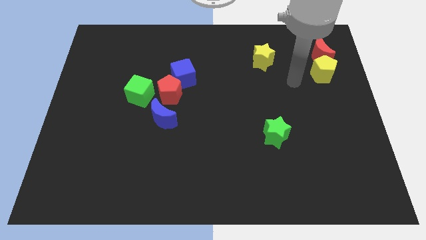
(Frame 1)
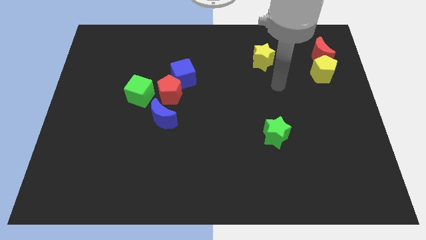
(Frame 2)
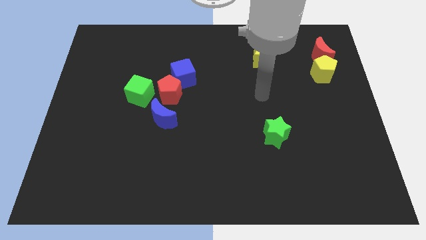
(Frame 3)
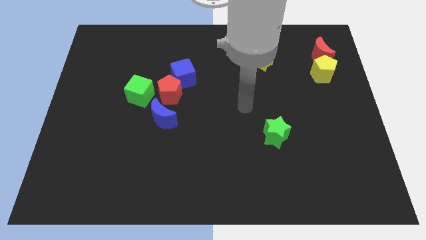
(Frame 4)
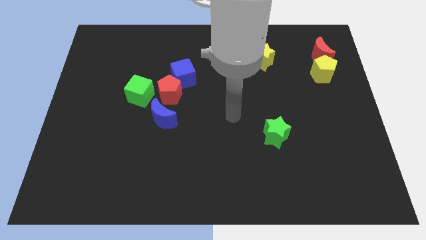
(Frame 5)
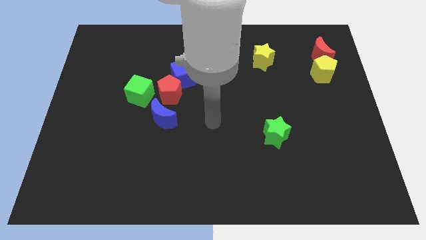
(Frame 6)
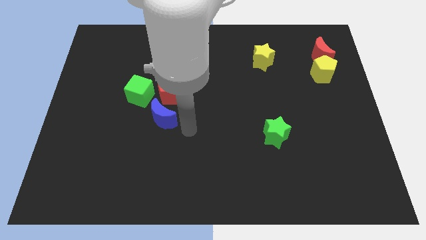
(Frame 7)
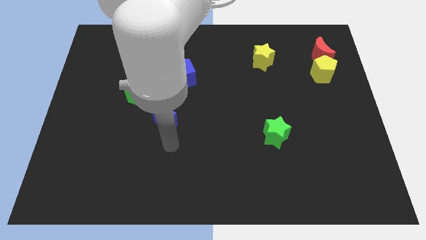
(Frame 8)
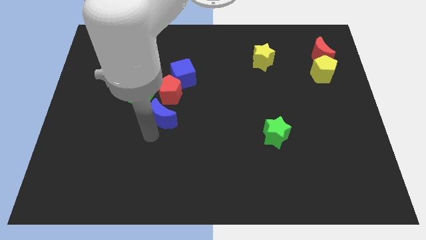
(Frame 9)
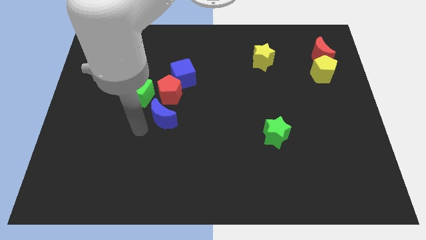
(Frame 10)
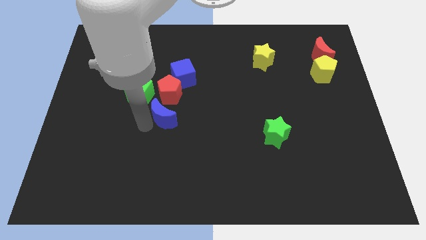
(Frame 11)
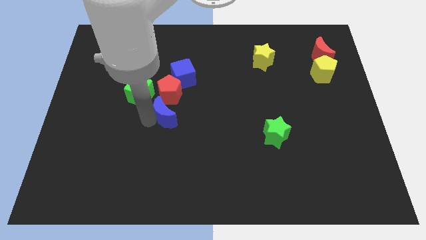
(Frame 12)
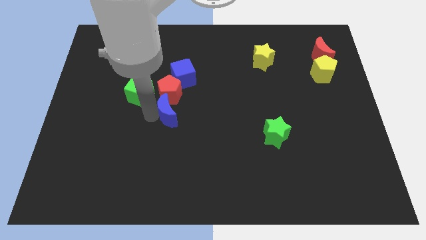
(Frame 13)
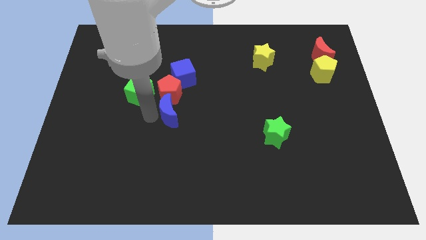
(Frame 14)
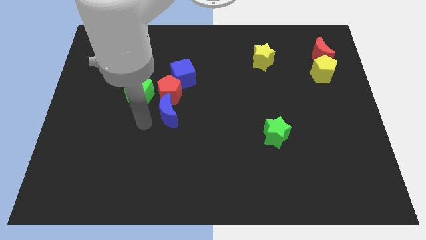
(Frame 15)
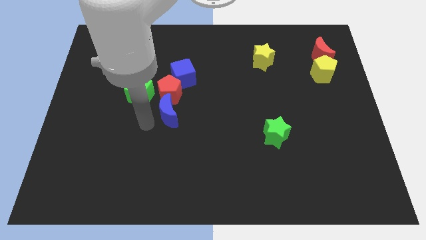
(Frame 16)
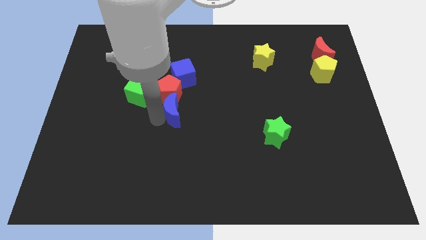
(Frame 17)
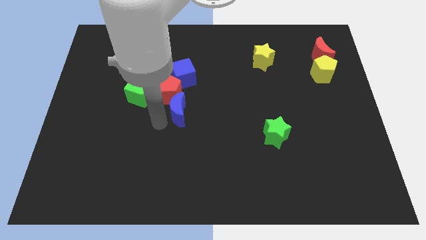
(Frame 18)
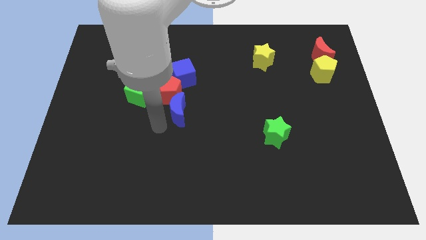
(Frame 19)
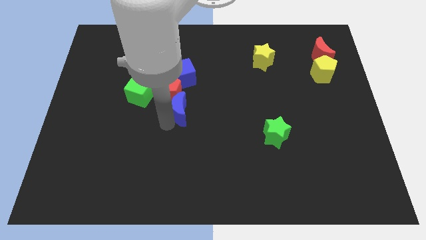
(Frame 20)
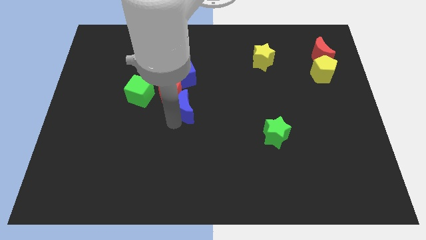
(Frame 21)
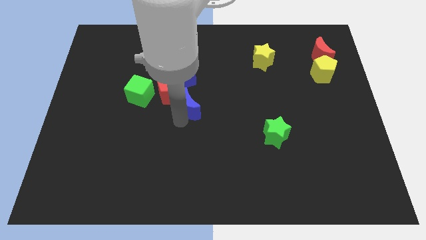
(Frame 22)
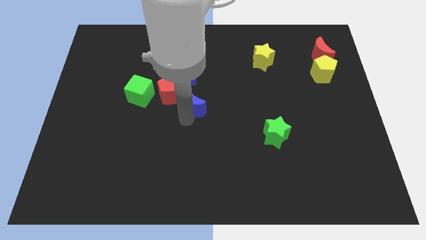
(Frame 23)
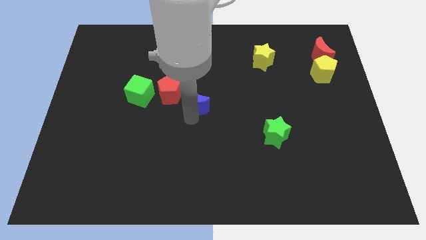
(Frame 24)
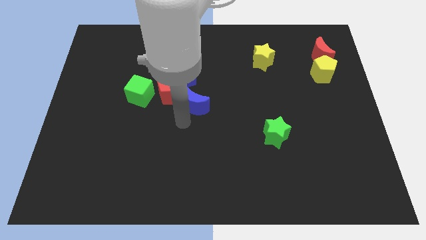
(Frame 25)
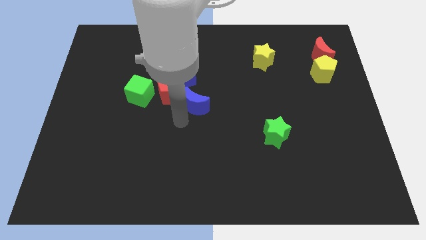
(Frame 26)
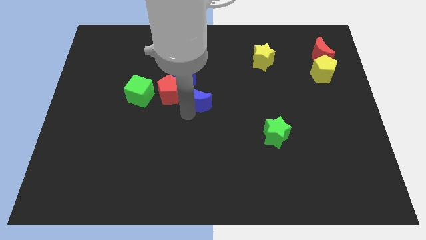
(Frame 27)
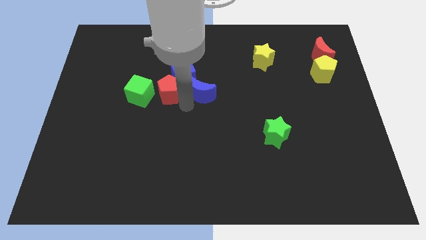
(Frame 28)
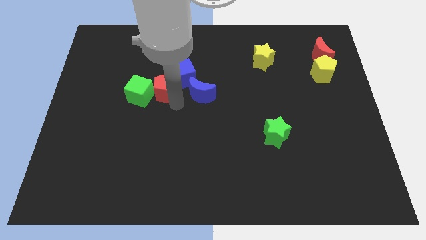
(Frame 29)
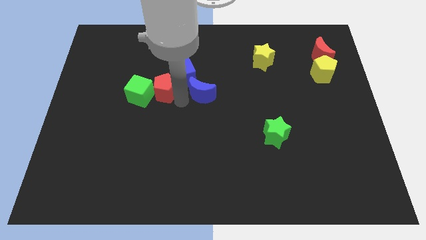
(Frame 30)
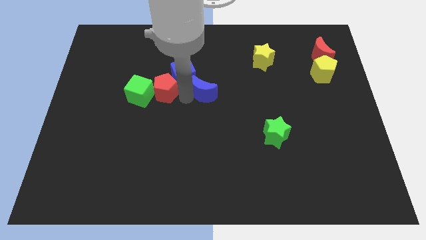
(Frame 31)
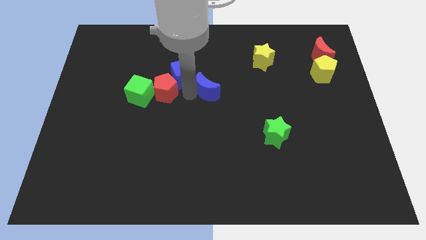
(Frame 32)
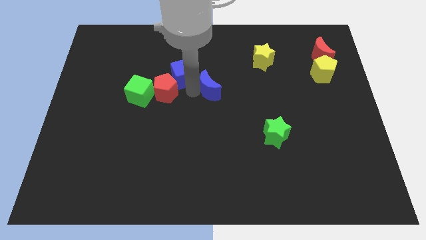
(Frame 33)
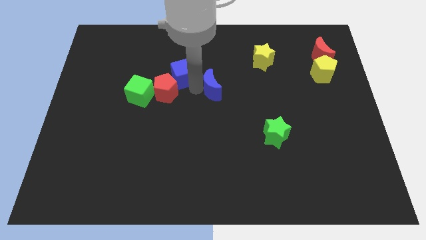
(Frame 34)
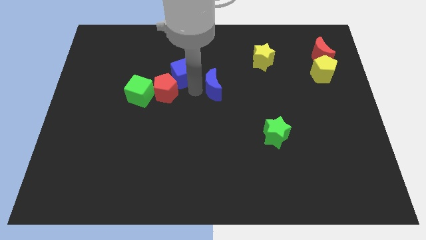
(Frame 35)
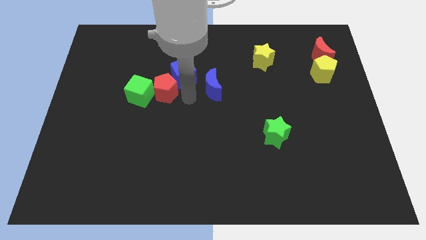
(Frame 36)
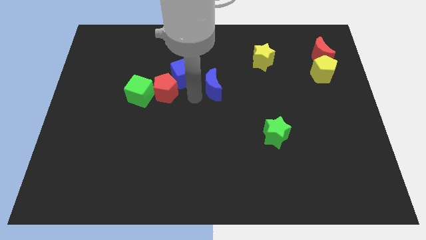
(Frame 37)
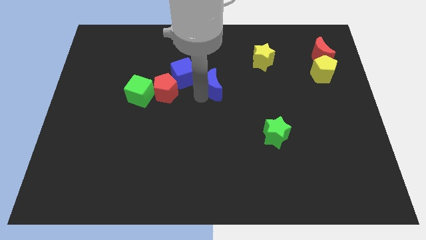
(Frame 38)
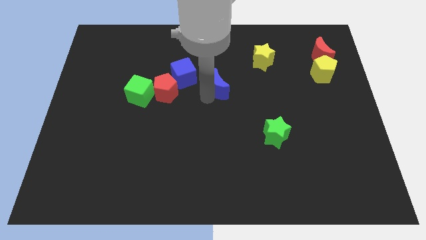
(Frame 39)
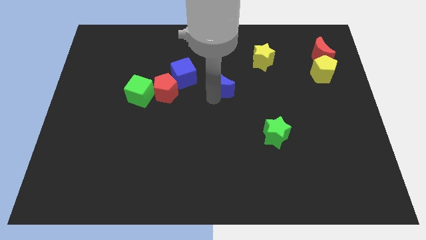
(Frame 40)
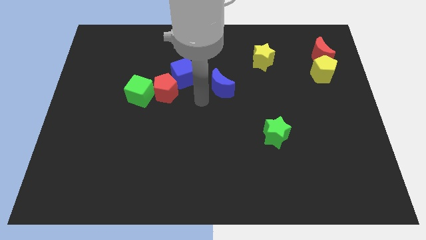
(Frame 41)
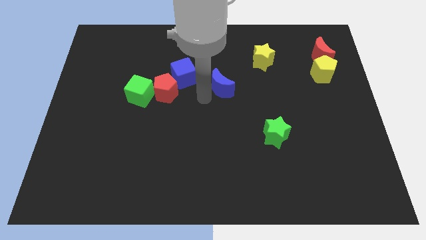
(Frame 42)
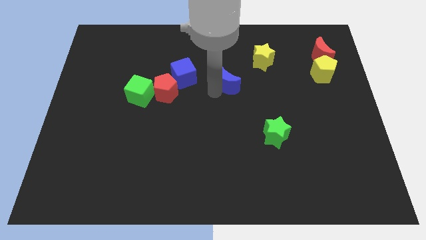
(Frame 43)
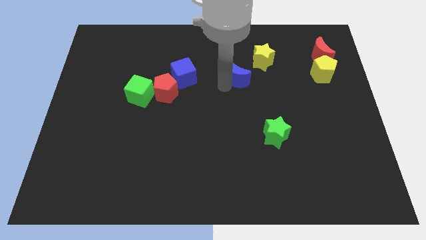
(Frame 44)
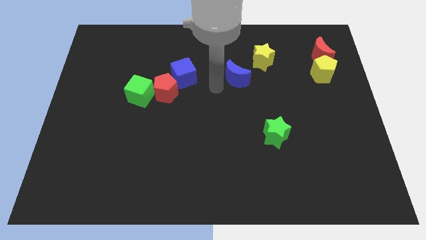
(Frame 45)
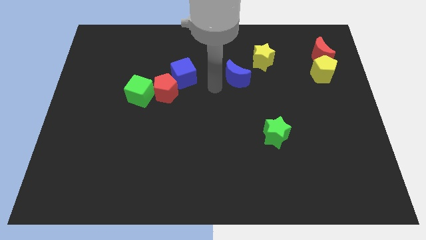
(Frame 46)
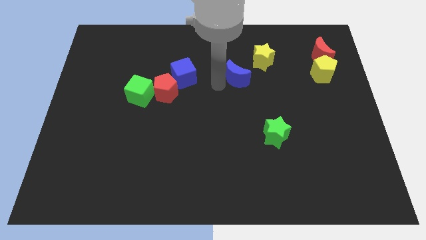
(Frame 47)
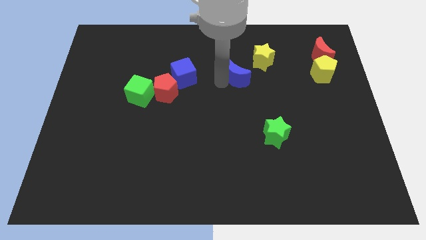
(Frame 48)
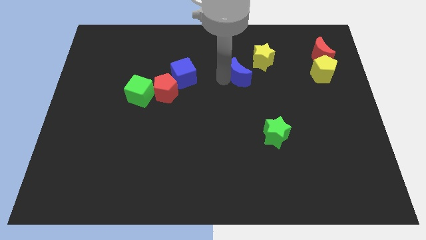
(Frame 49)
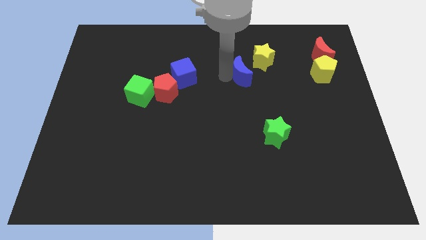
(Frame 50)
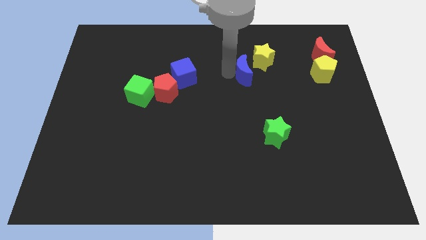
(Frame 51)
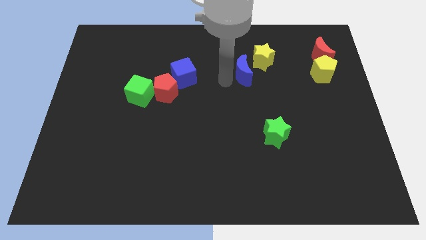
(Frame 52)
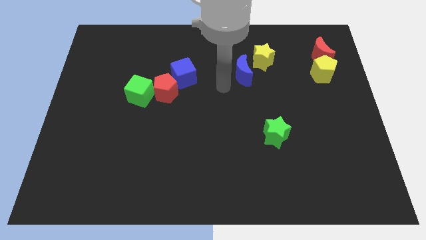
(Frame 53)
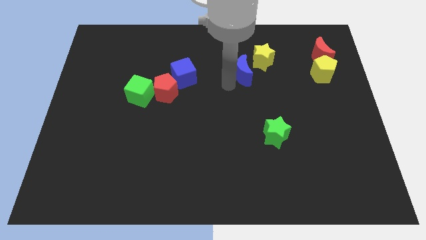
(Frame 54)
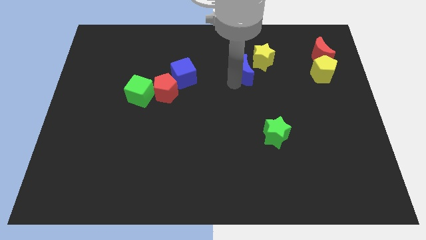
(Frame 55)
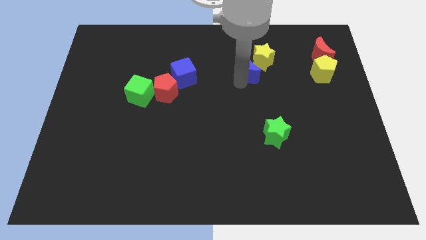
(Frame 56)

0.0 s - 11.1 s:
put the blue moon to the yellow star

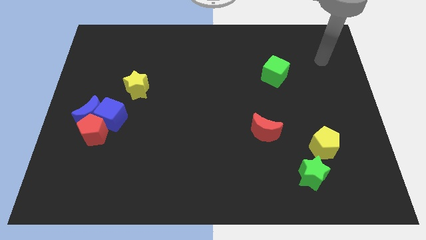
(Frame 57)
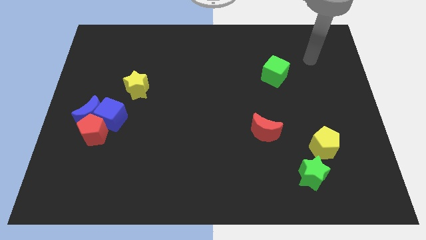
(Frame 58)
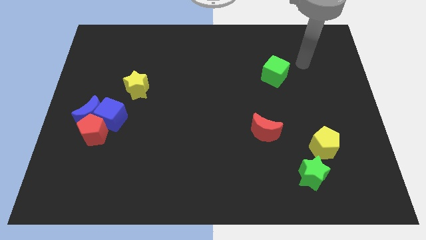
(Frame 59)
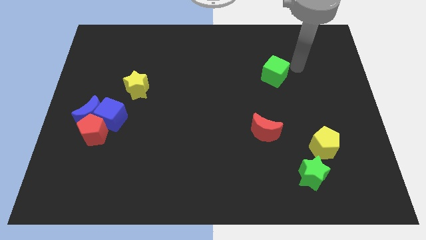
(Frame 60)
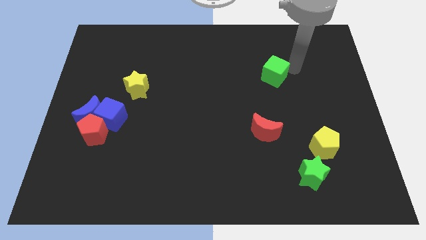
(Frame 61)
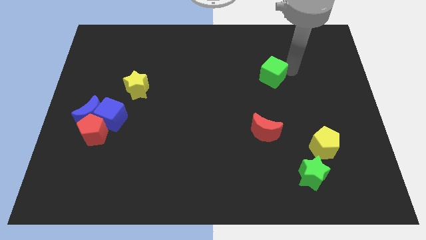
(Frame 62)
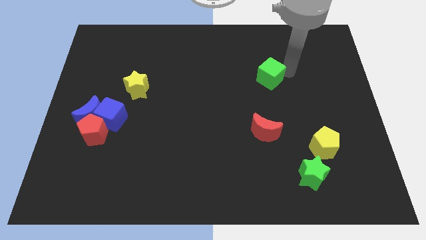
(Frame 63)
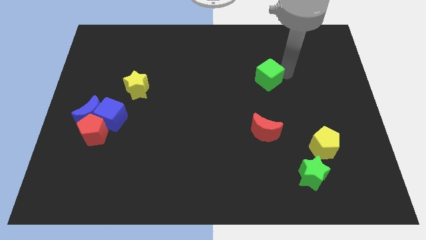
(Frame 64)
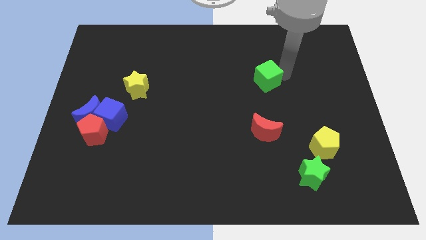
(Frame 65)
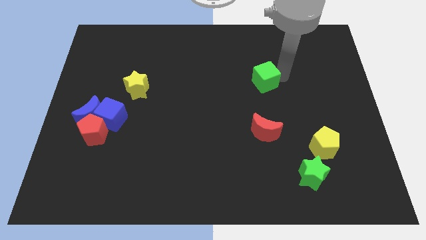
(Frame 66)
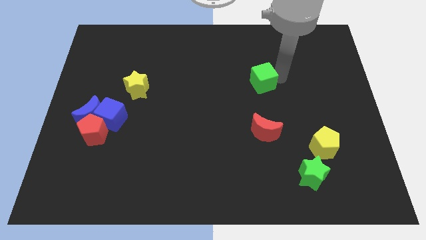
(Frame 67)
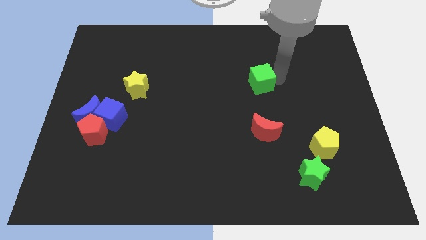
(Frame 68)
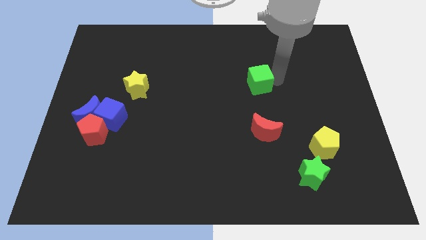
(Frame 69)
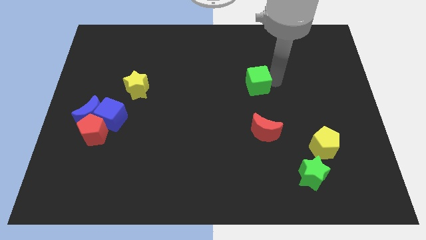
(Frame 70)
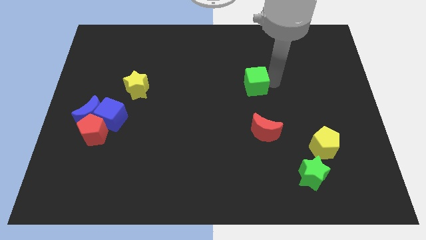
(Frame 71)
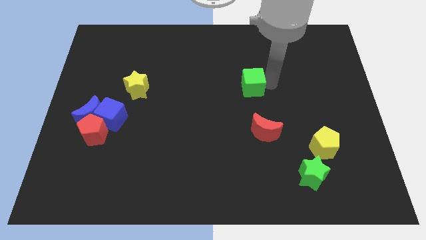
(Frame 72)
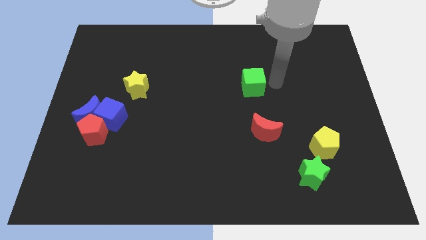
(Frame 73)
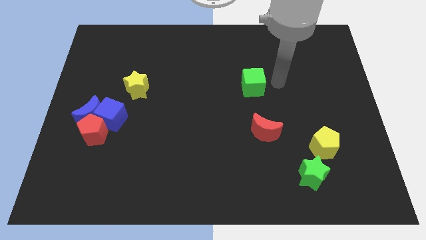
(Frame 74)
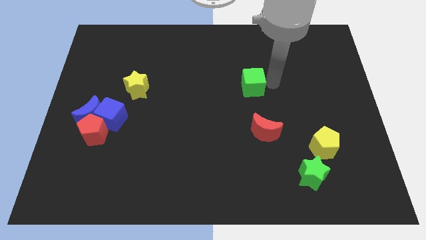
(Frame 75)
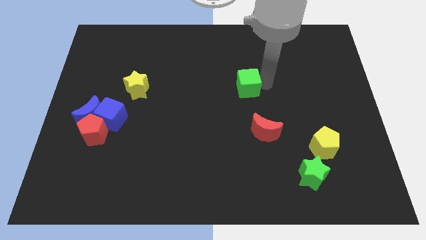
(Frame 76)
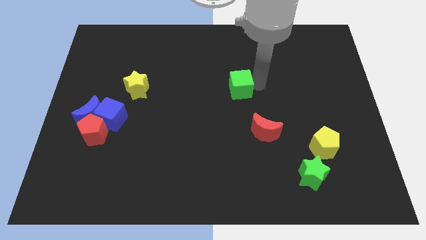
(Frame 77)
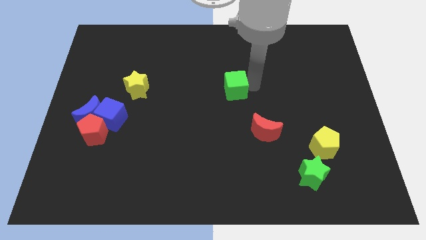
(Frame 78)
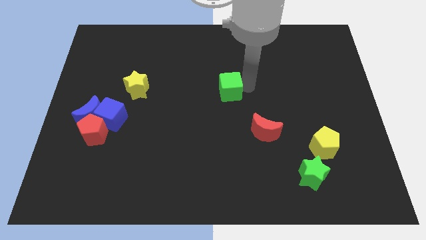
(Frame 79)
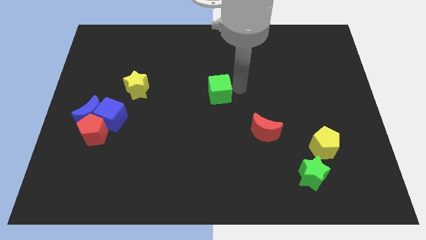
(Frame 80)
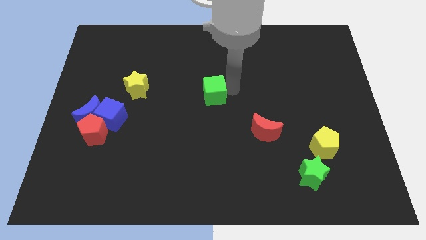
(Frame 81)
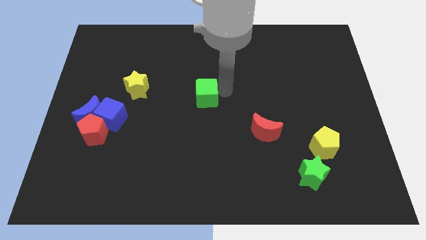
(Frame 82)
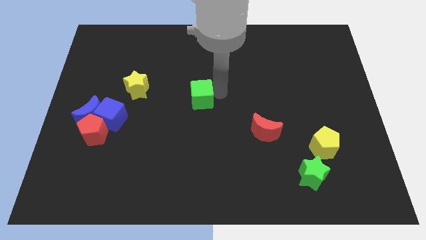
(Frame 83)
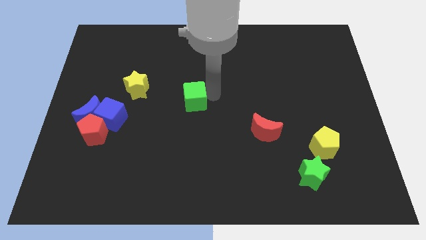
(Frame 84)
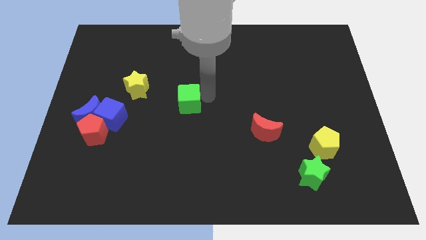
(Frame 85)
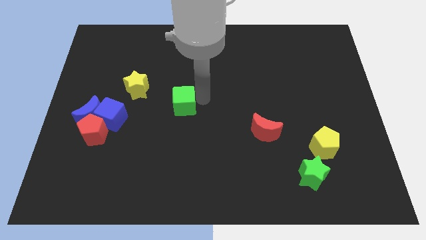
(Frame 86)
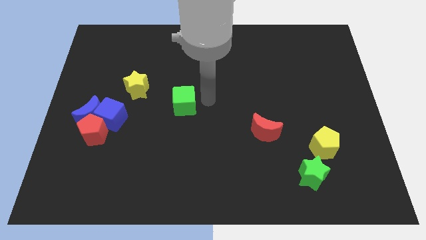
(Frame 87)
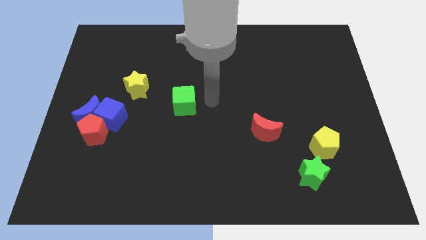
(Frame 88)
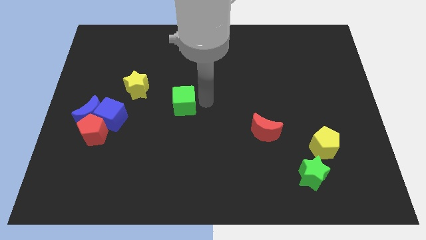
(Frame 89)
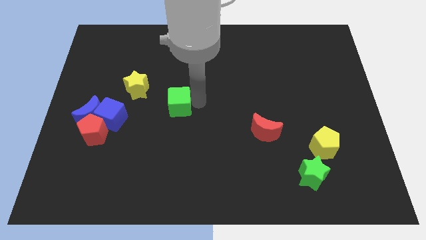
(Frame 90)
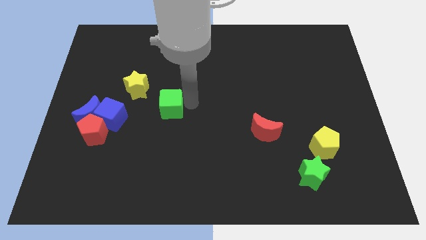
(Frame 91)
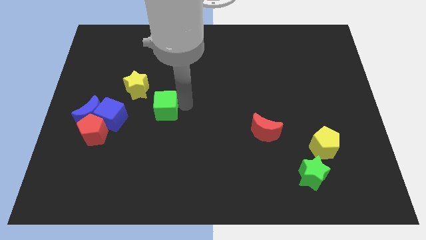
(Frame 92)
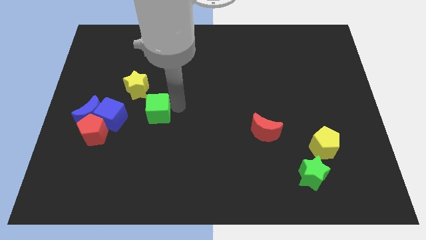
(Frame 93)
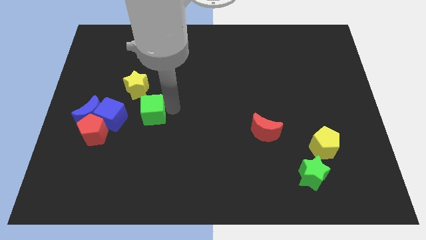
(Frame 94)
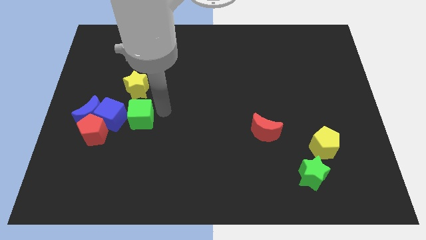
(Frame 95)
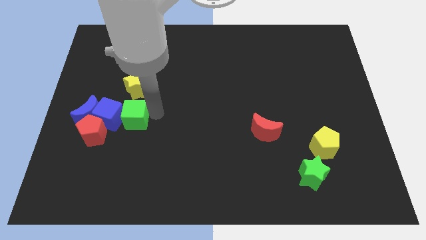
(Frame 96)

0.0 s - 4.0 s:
push the green cube close to the blue cube
